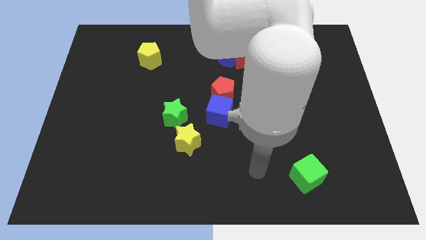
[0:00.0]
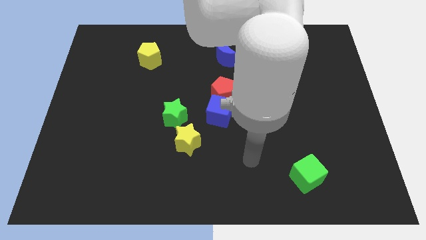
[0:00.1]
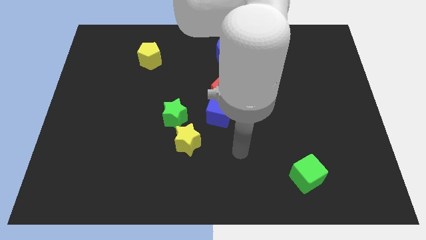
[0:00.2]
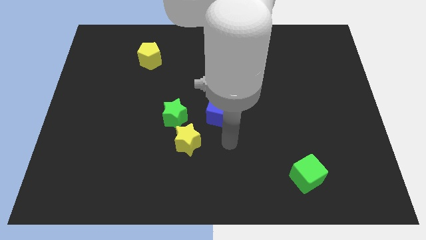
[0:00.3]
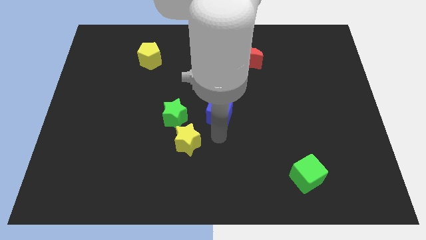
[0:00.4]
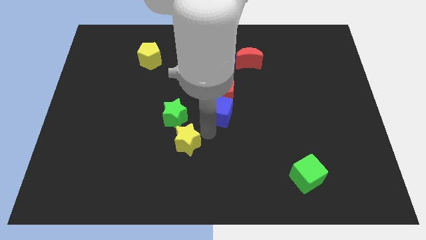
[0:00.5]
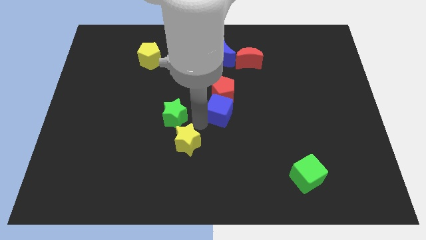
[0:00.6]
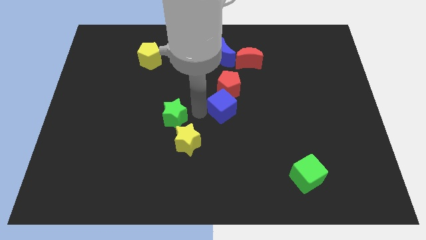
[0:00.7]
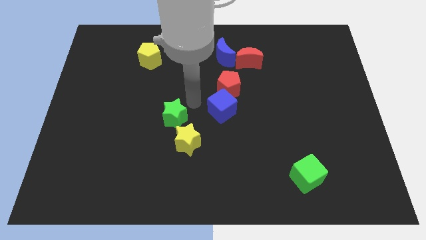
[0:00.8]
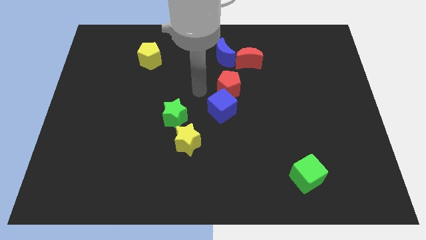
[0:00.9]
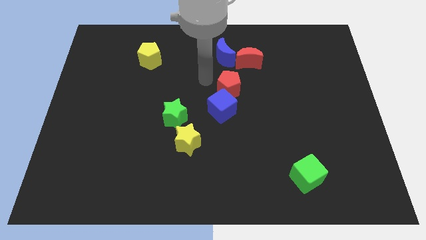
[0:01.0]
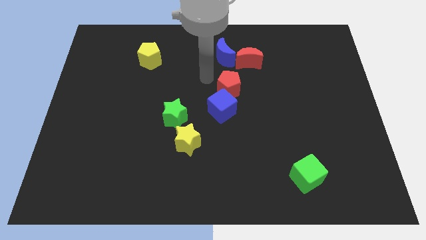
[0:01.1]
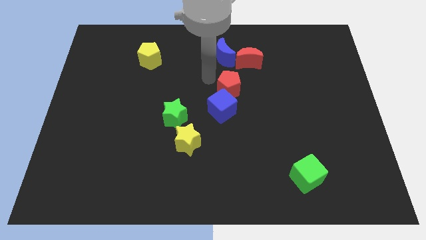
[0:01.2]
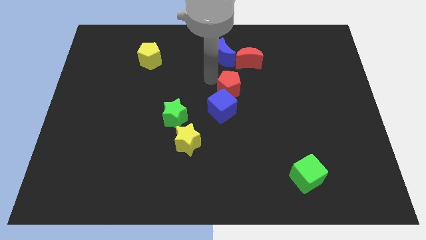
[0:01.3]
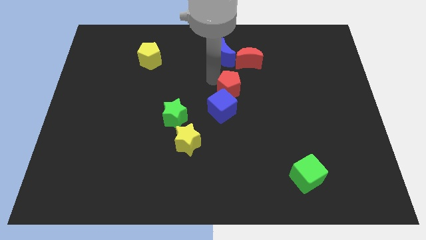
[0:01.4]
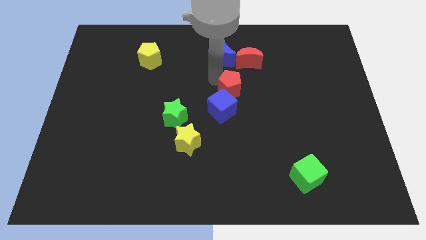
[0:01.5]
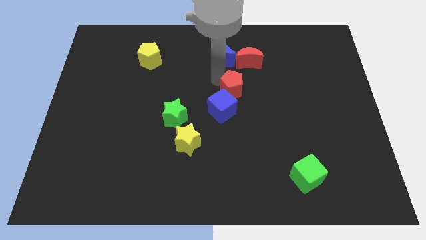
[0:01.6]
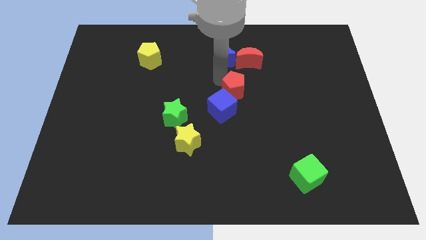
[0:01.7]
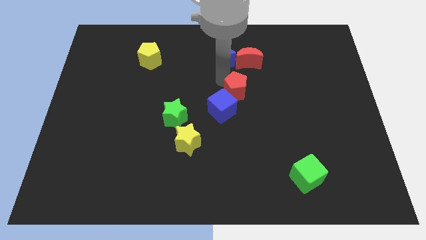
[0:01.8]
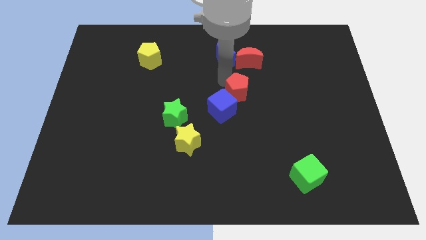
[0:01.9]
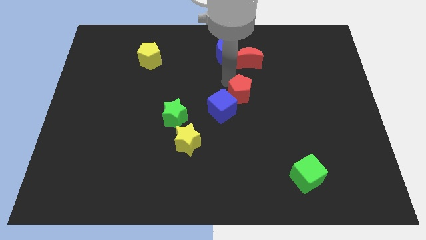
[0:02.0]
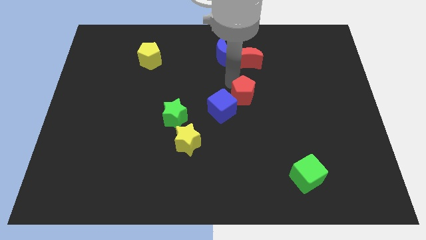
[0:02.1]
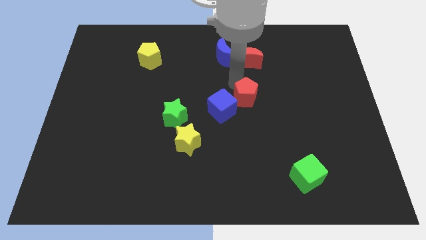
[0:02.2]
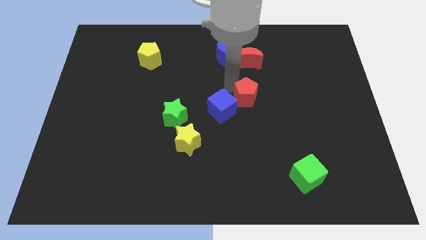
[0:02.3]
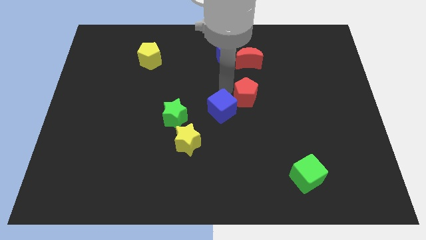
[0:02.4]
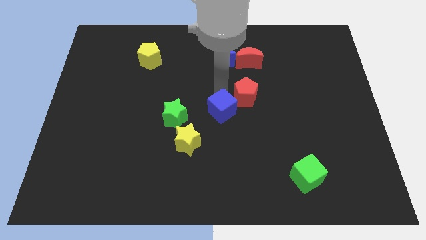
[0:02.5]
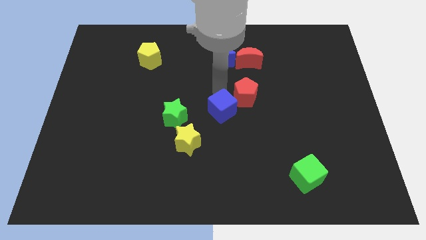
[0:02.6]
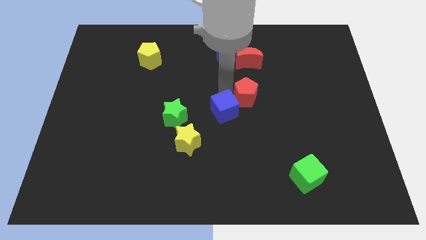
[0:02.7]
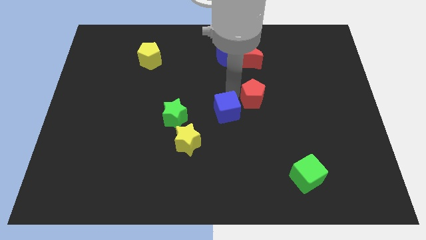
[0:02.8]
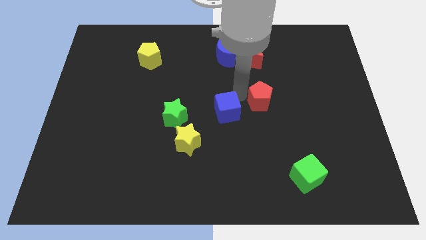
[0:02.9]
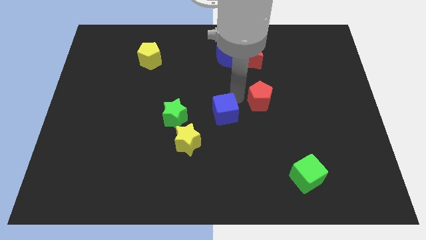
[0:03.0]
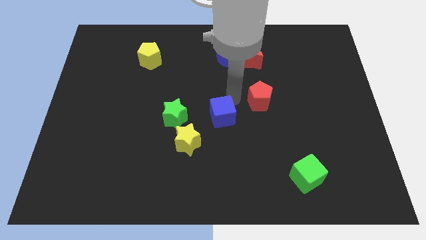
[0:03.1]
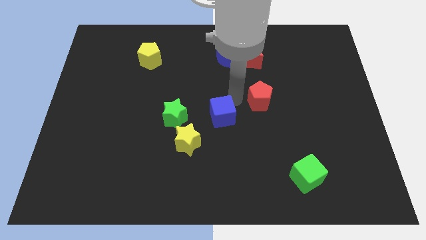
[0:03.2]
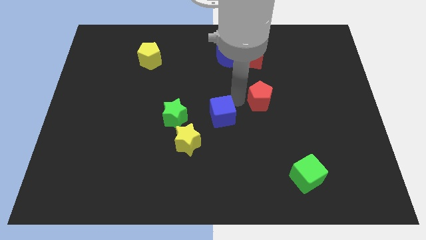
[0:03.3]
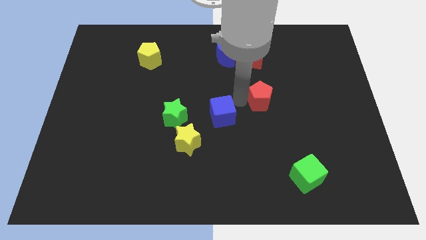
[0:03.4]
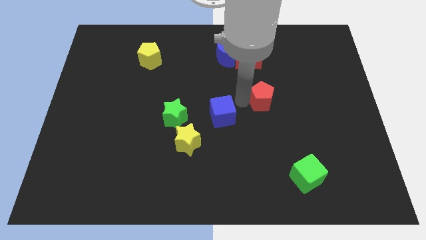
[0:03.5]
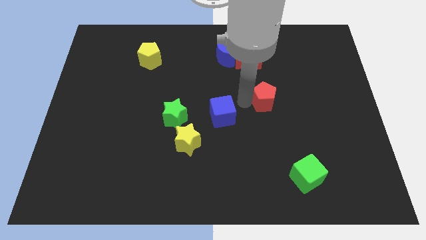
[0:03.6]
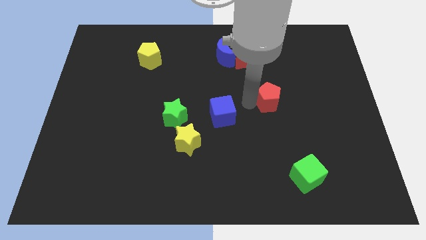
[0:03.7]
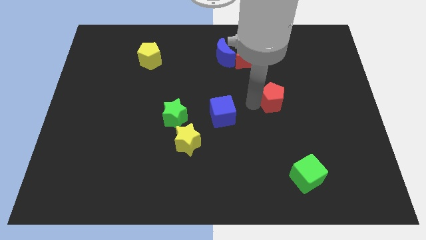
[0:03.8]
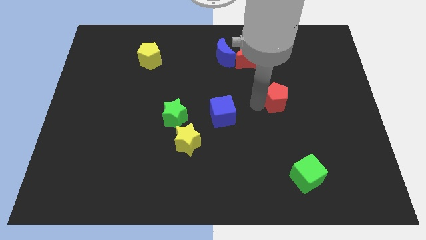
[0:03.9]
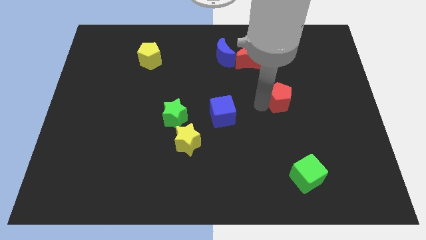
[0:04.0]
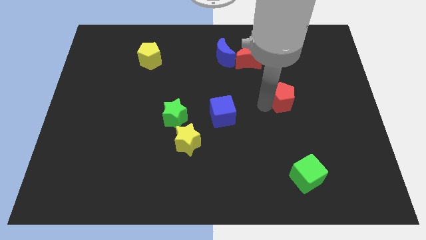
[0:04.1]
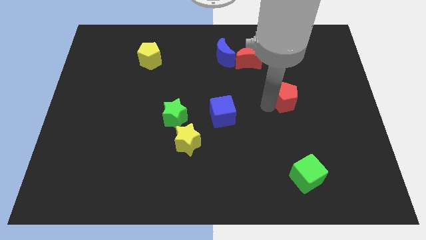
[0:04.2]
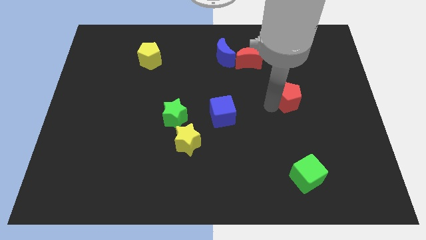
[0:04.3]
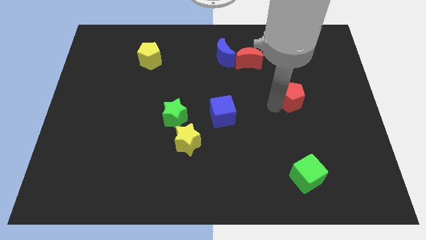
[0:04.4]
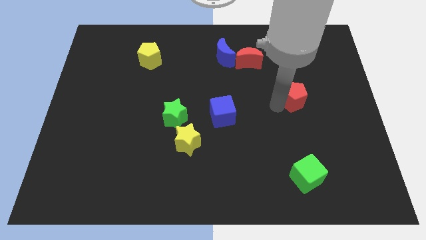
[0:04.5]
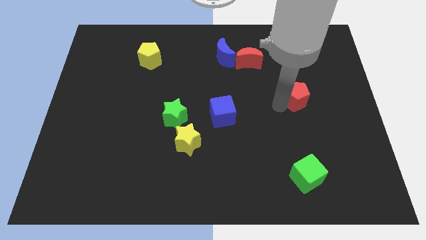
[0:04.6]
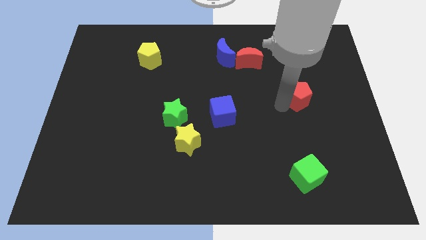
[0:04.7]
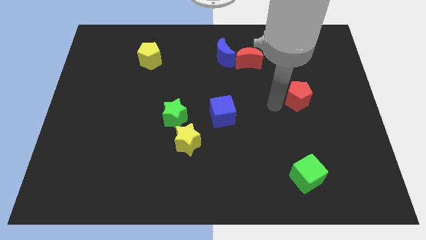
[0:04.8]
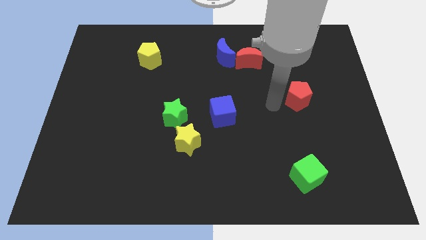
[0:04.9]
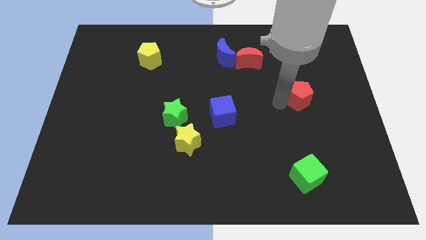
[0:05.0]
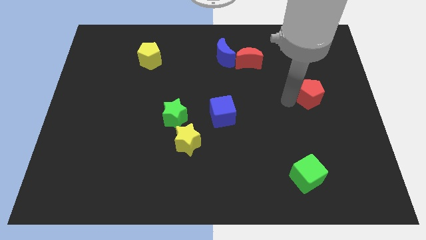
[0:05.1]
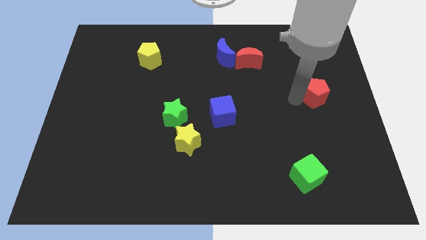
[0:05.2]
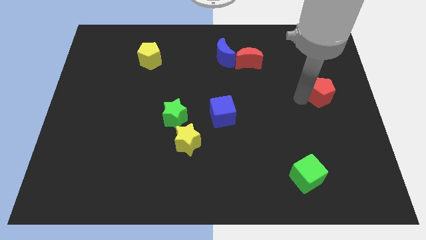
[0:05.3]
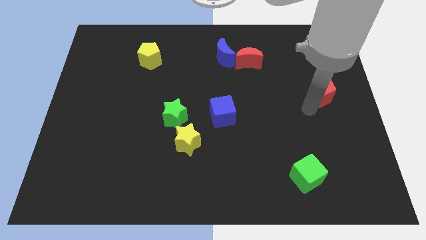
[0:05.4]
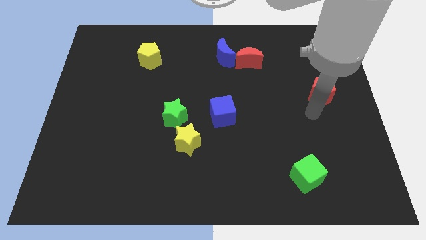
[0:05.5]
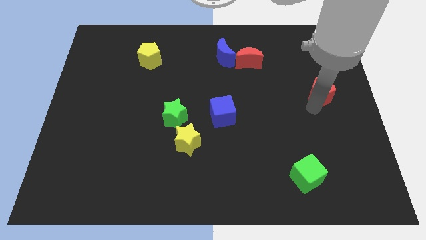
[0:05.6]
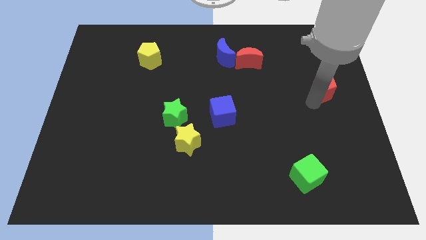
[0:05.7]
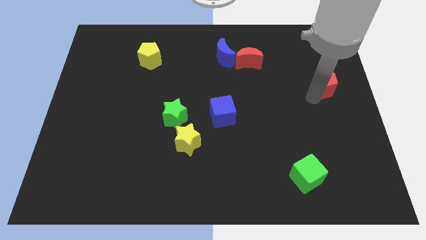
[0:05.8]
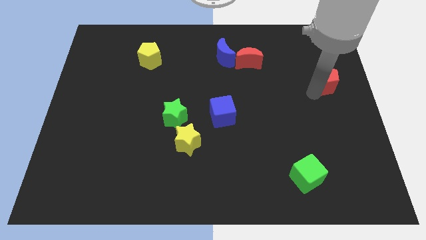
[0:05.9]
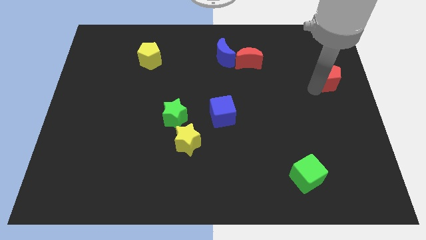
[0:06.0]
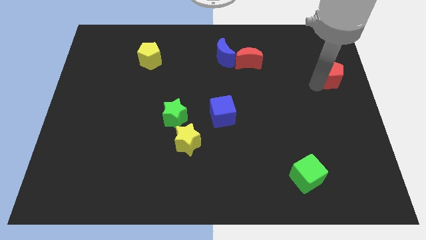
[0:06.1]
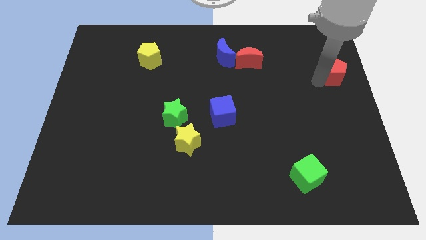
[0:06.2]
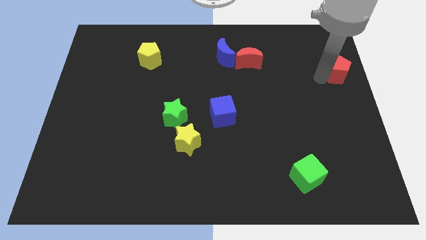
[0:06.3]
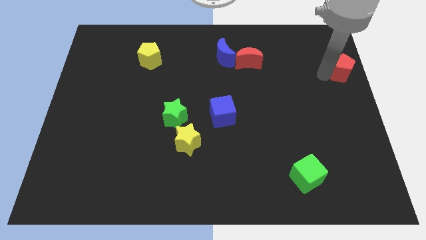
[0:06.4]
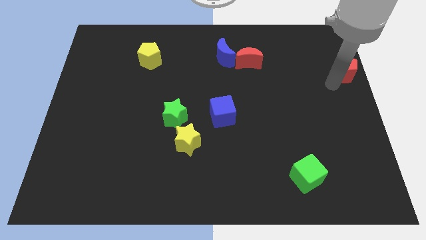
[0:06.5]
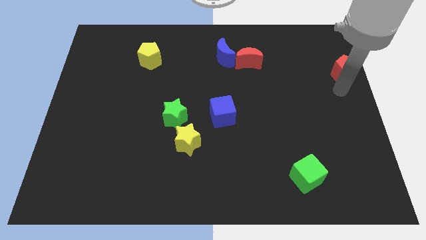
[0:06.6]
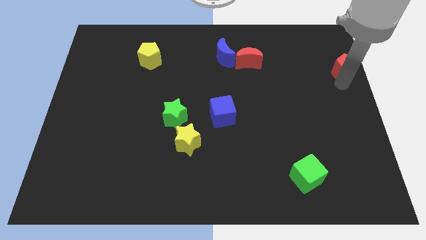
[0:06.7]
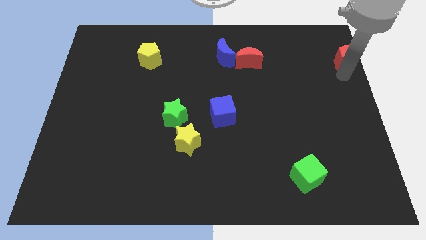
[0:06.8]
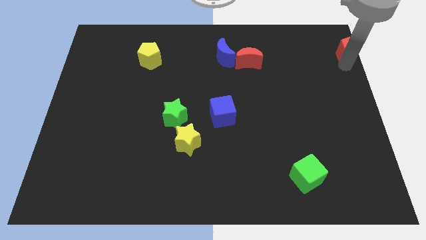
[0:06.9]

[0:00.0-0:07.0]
put the red pentagon to the top right
